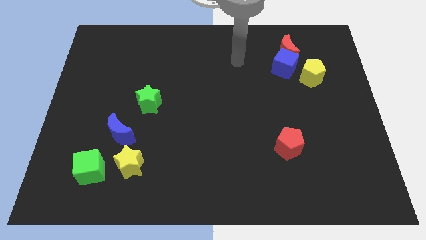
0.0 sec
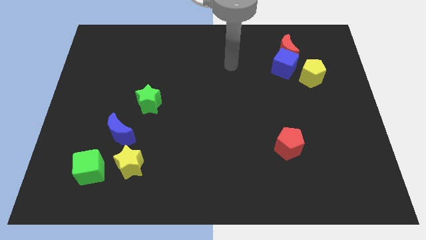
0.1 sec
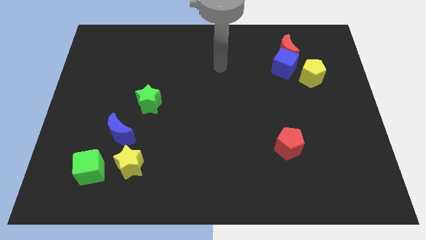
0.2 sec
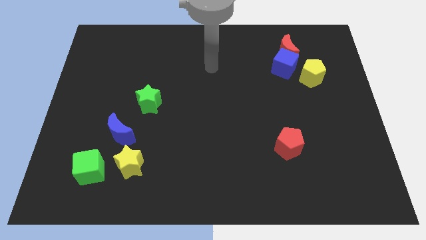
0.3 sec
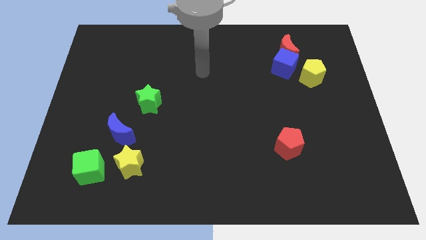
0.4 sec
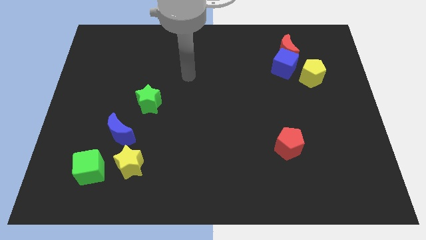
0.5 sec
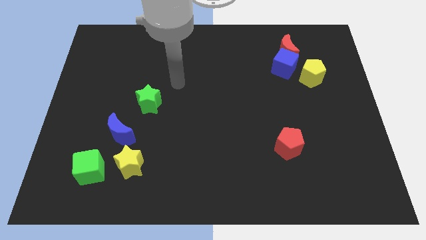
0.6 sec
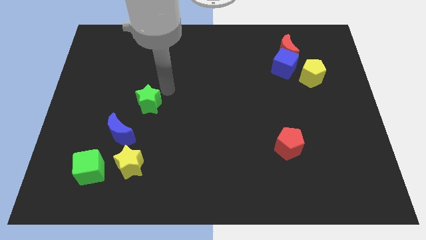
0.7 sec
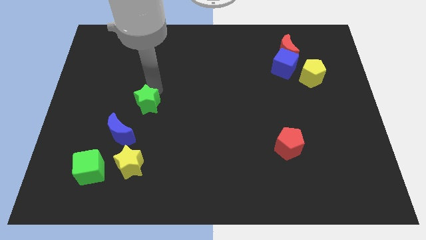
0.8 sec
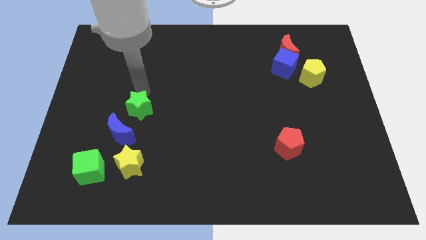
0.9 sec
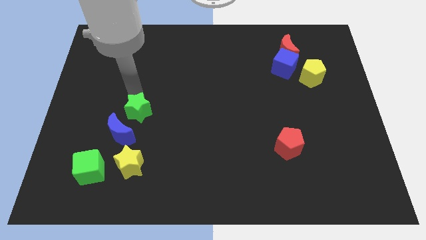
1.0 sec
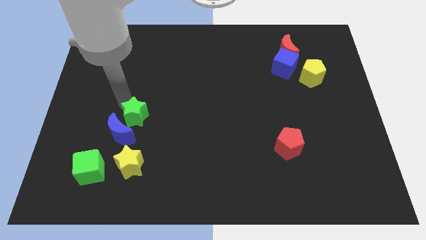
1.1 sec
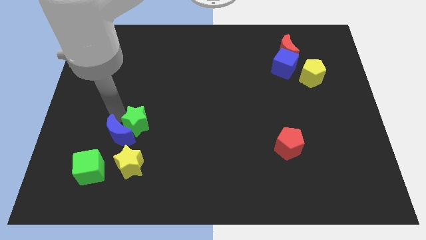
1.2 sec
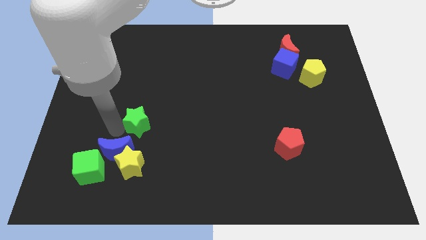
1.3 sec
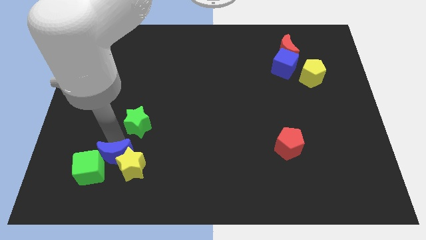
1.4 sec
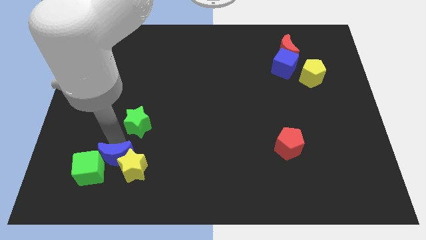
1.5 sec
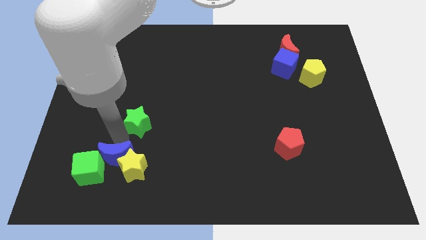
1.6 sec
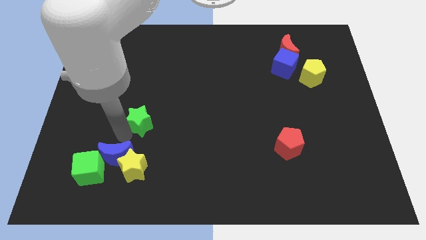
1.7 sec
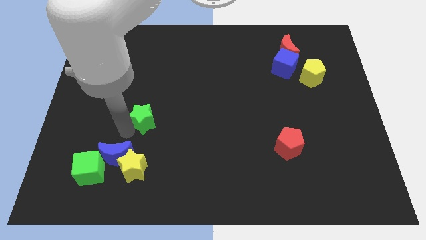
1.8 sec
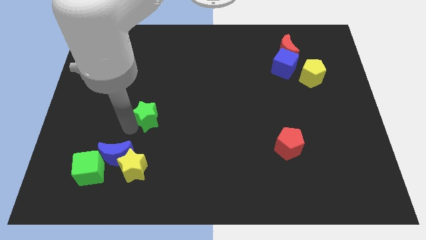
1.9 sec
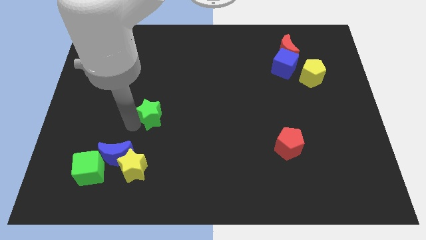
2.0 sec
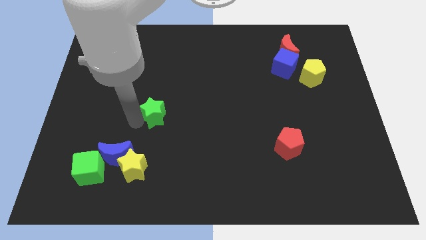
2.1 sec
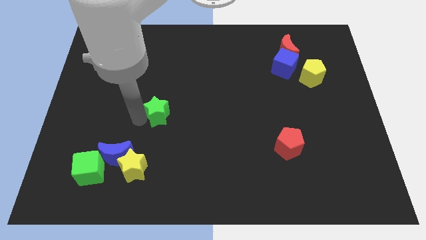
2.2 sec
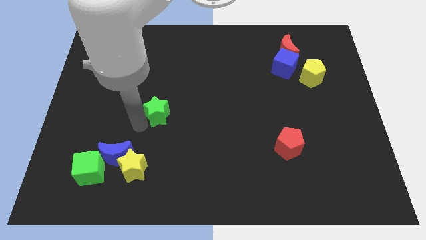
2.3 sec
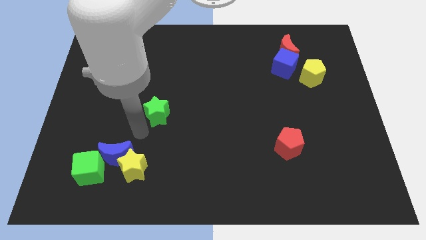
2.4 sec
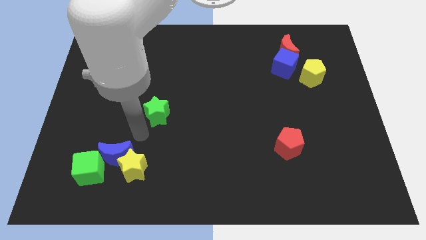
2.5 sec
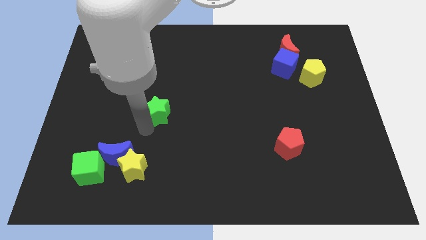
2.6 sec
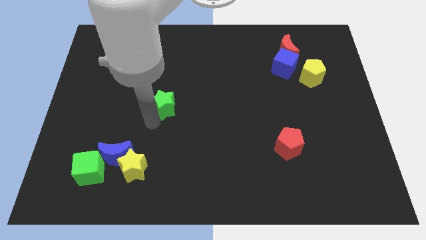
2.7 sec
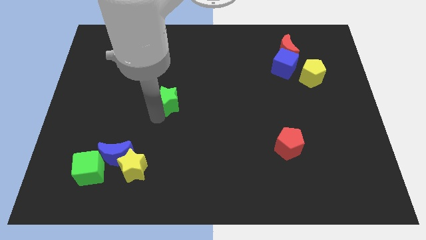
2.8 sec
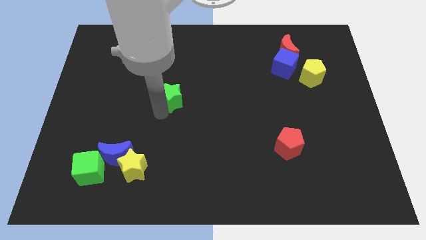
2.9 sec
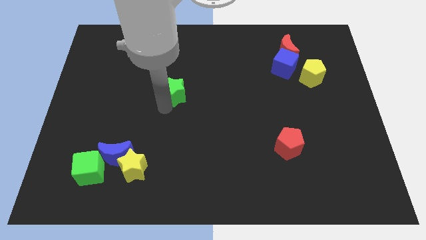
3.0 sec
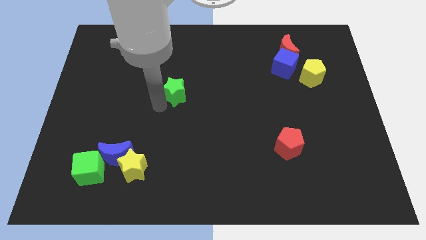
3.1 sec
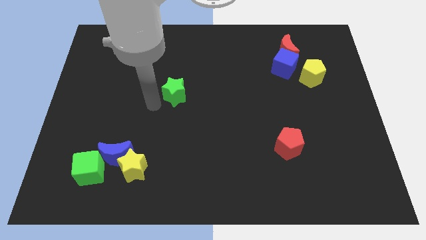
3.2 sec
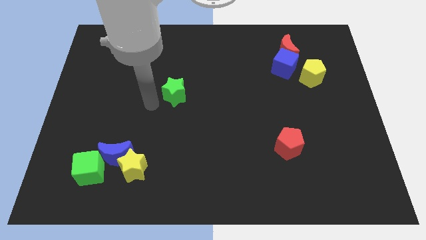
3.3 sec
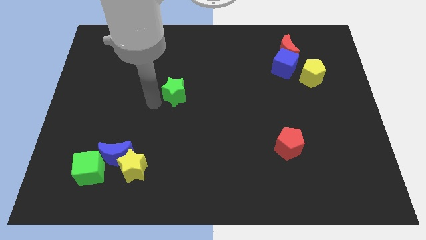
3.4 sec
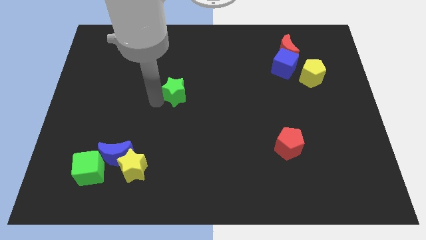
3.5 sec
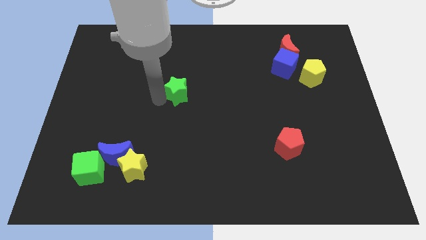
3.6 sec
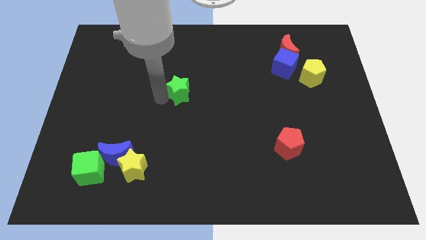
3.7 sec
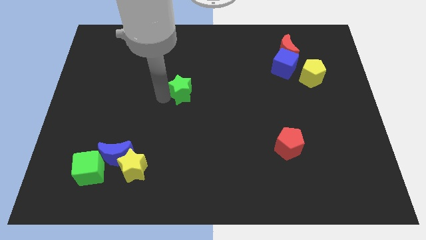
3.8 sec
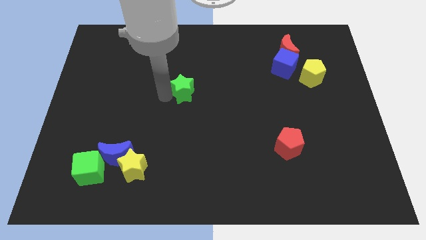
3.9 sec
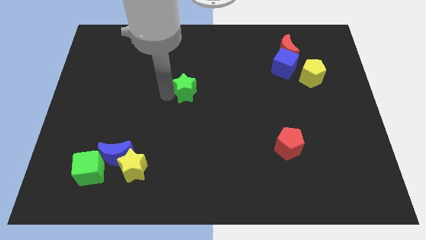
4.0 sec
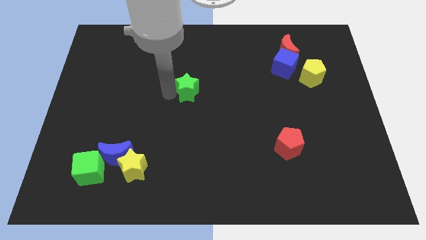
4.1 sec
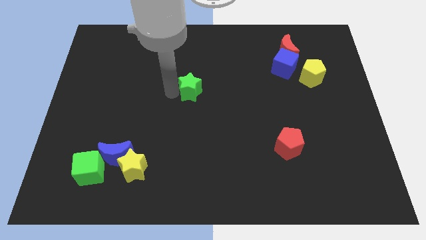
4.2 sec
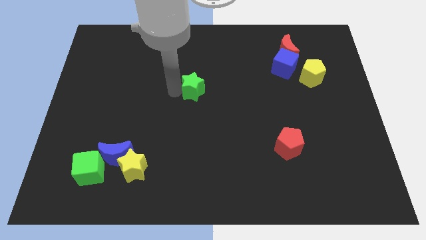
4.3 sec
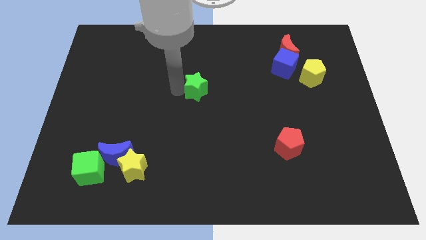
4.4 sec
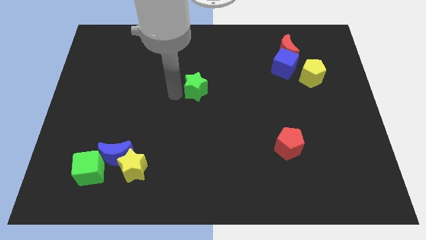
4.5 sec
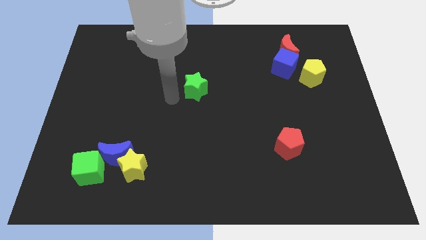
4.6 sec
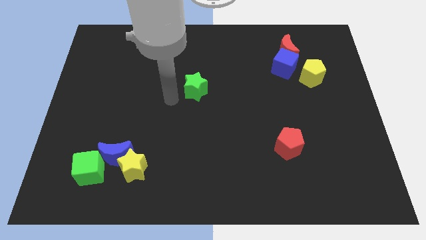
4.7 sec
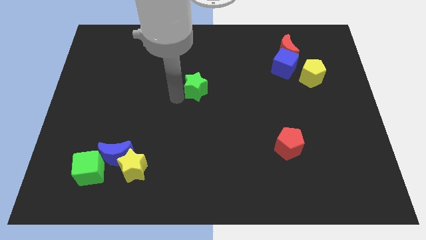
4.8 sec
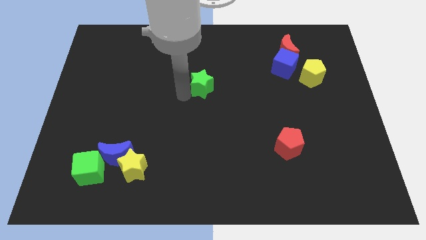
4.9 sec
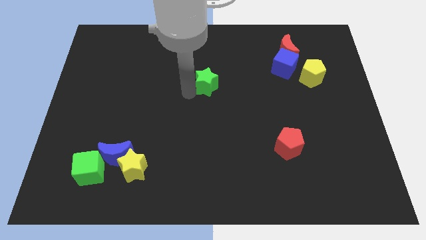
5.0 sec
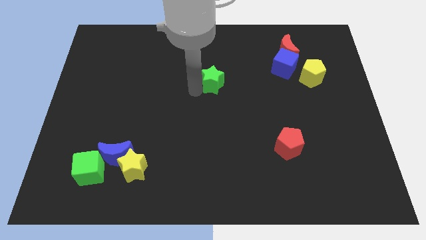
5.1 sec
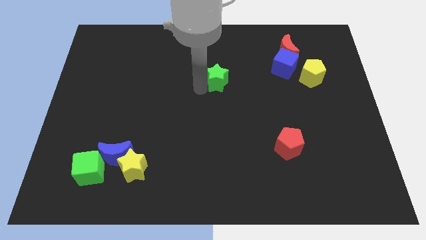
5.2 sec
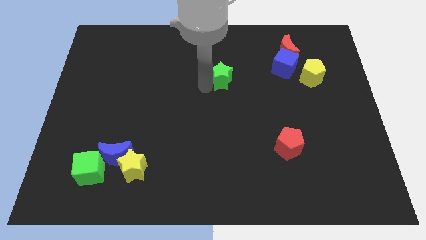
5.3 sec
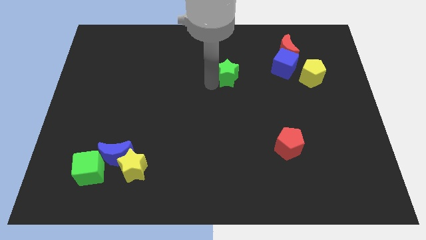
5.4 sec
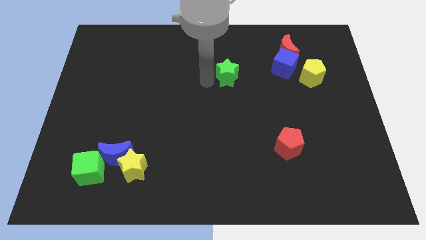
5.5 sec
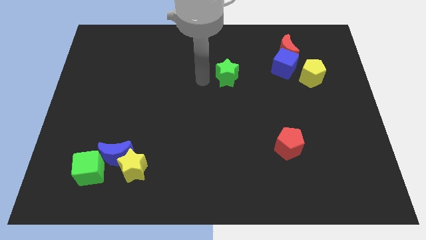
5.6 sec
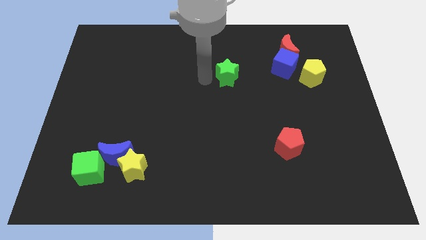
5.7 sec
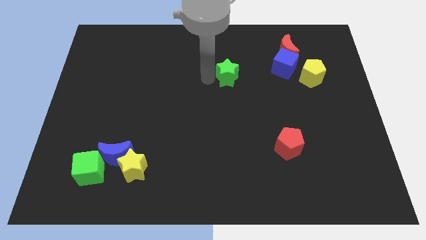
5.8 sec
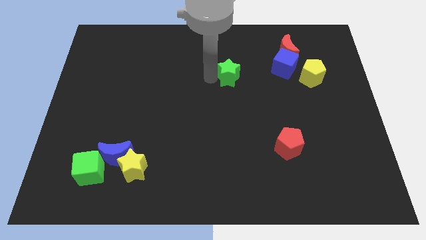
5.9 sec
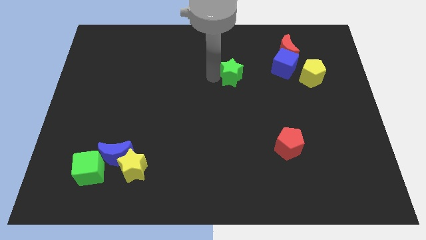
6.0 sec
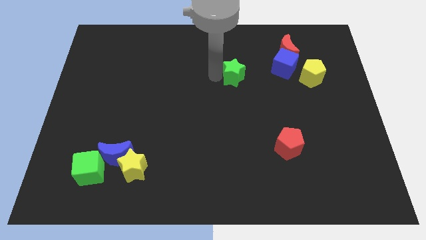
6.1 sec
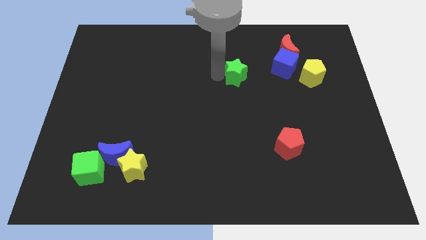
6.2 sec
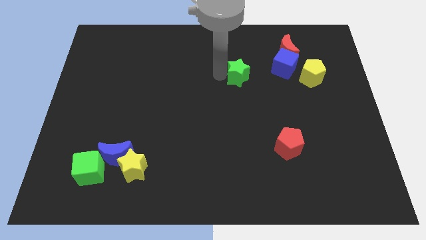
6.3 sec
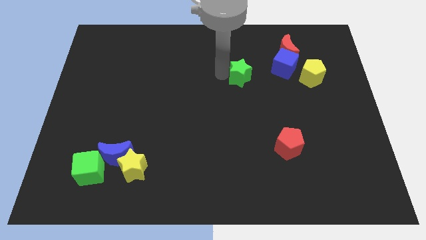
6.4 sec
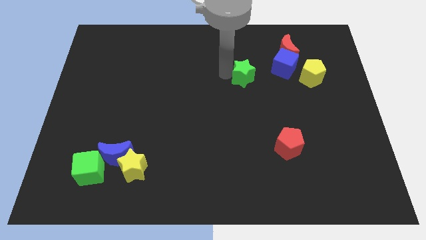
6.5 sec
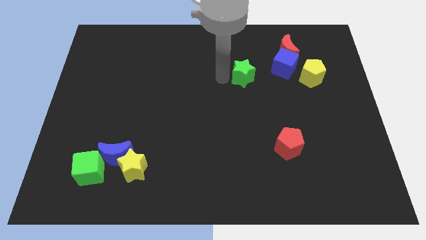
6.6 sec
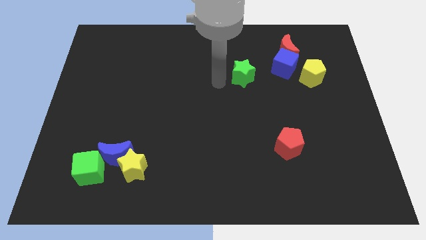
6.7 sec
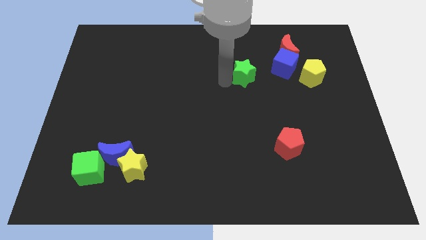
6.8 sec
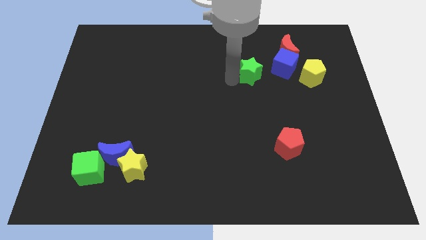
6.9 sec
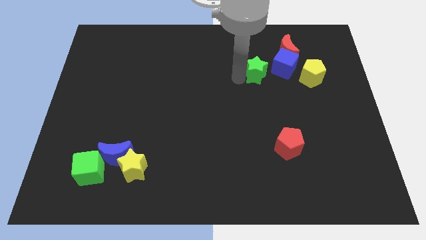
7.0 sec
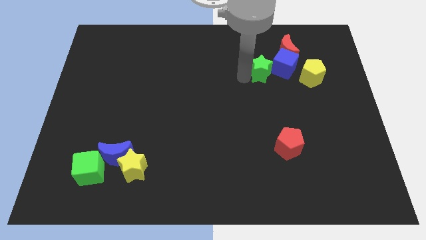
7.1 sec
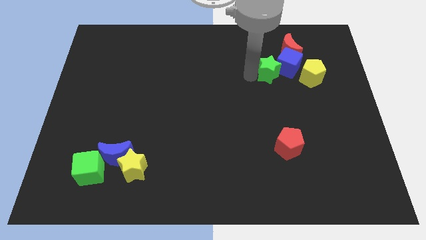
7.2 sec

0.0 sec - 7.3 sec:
push the green star next to the blue cube

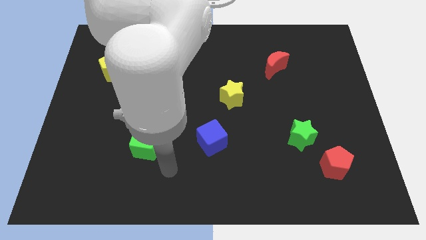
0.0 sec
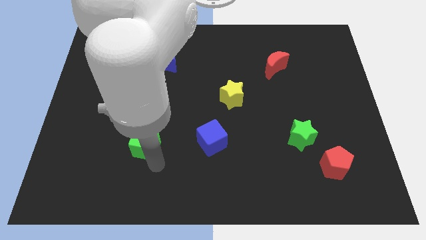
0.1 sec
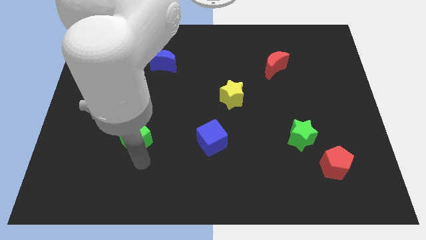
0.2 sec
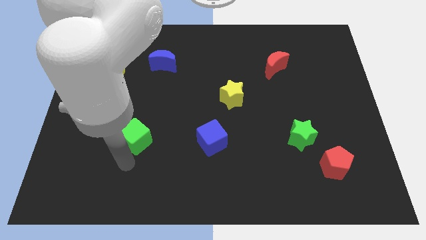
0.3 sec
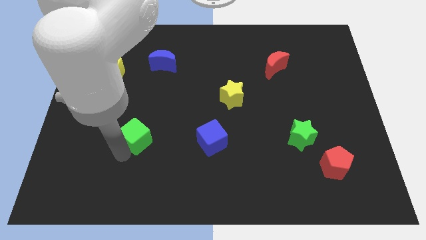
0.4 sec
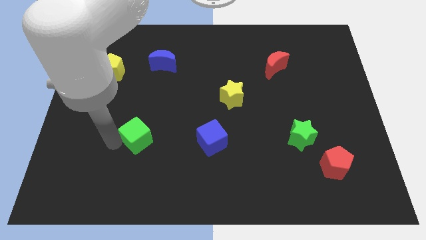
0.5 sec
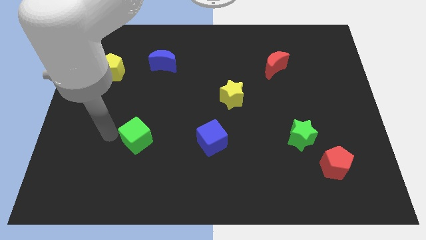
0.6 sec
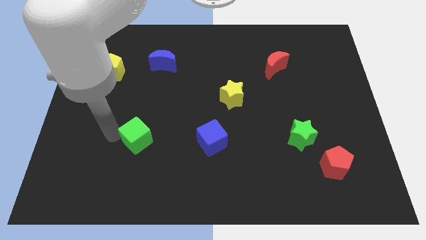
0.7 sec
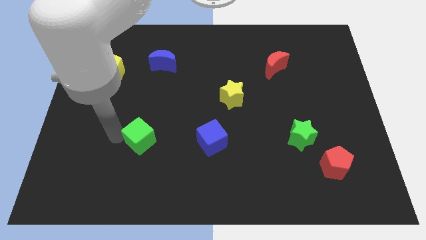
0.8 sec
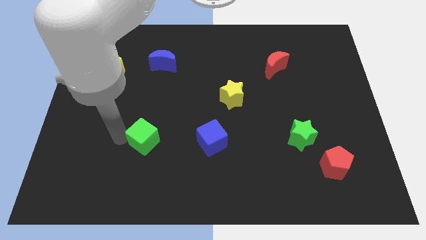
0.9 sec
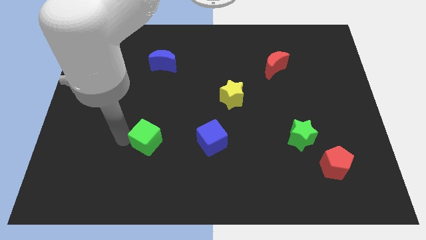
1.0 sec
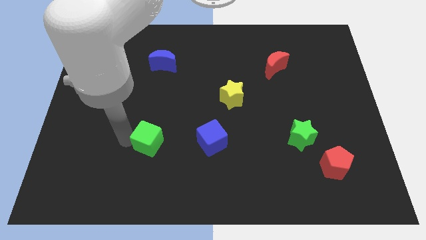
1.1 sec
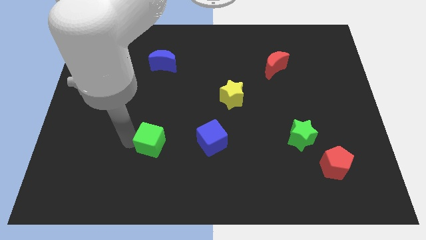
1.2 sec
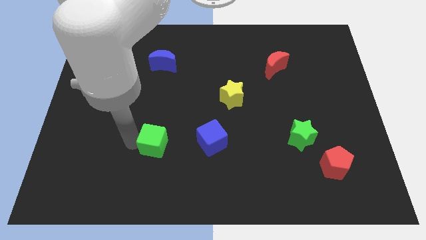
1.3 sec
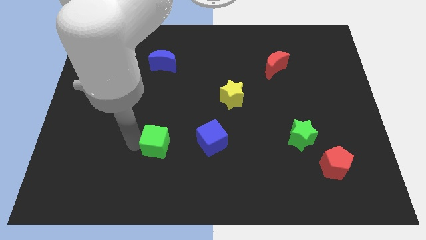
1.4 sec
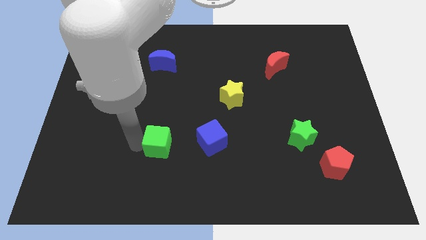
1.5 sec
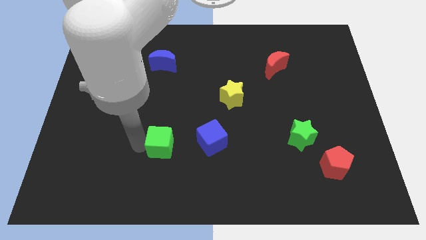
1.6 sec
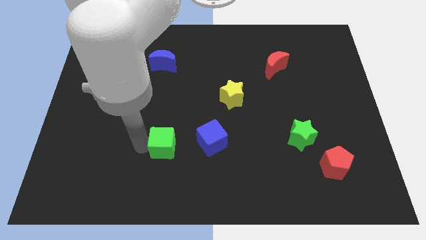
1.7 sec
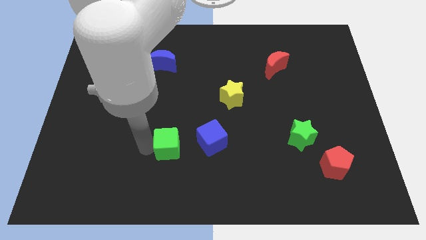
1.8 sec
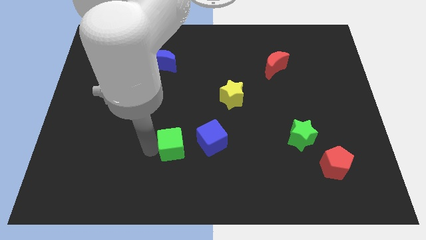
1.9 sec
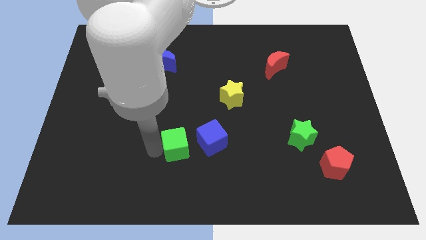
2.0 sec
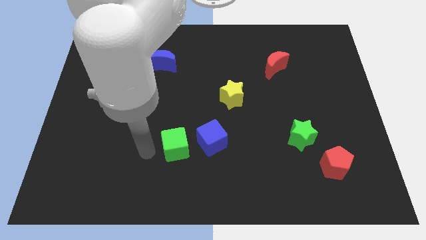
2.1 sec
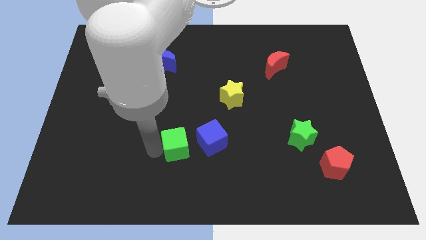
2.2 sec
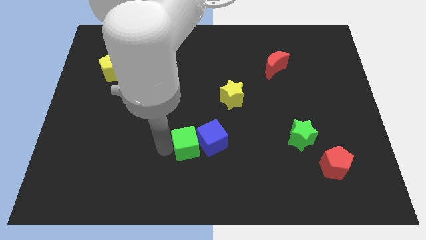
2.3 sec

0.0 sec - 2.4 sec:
slide the green cube close to the blue cube
